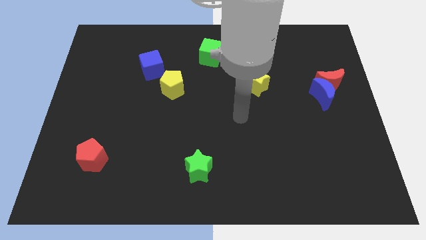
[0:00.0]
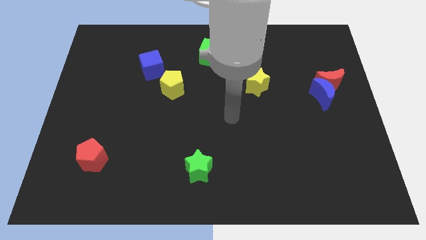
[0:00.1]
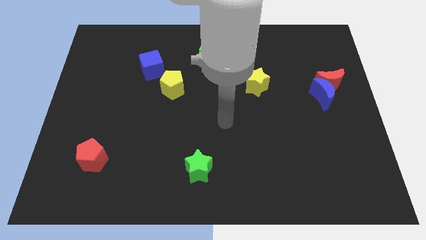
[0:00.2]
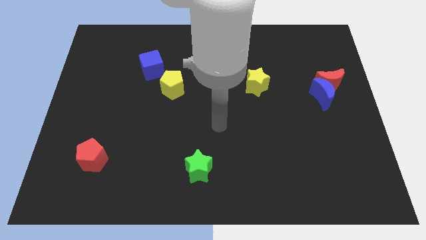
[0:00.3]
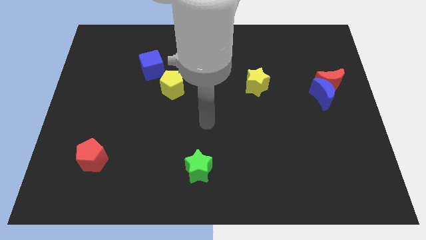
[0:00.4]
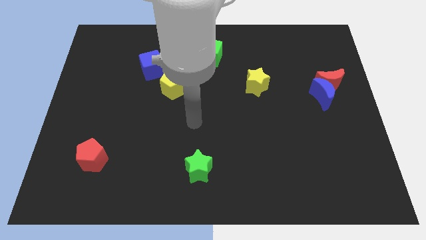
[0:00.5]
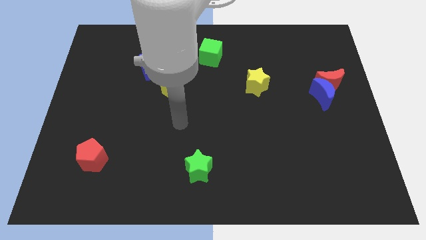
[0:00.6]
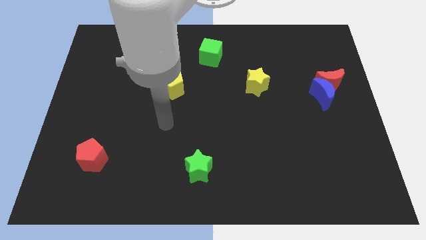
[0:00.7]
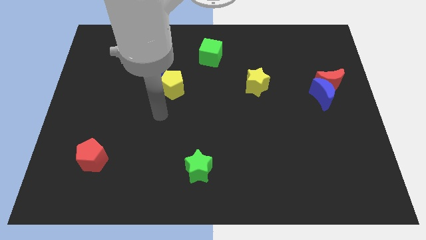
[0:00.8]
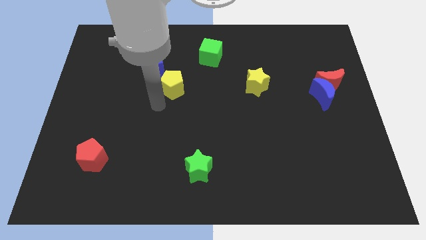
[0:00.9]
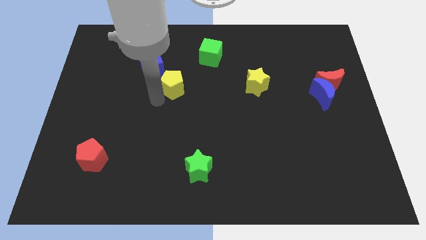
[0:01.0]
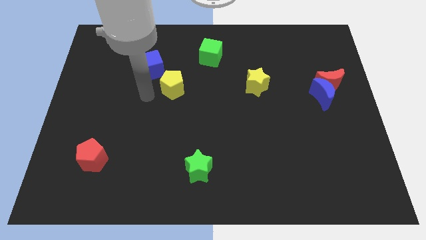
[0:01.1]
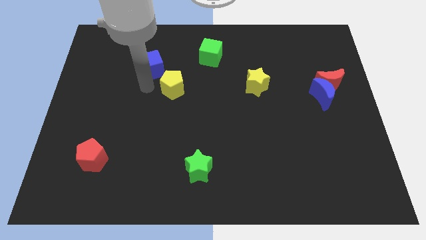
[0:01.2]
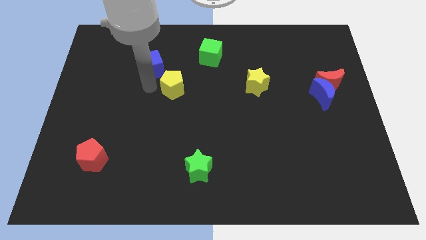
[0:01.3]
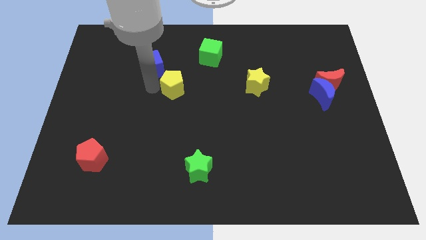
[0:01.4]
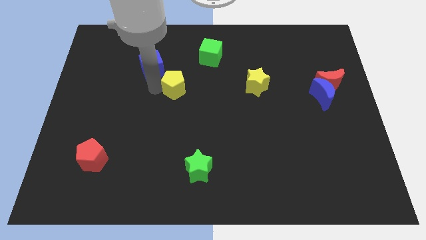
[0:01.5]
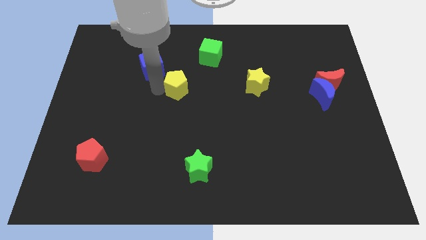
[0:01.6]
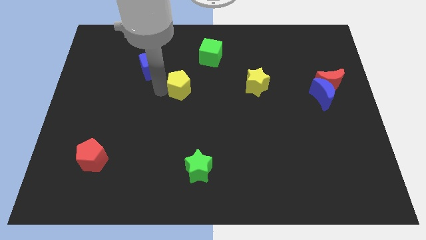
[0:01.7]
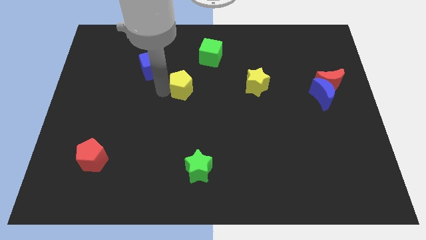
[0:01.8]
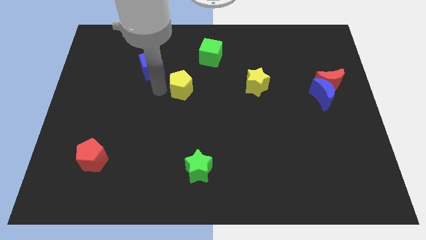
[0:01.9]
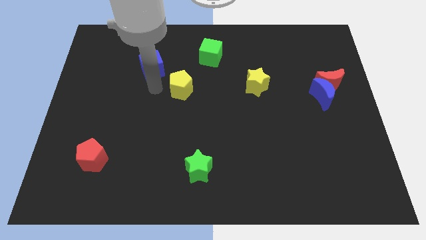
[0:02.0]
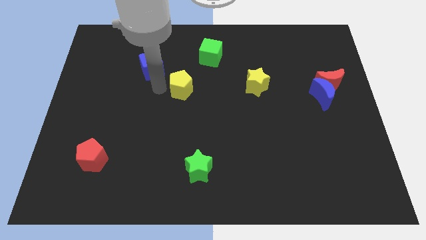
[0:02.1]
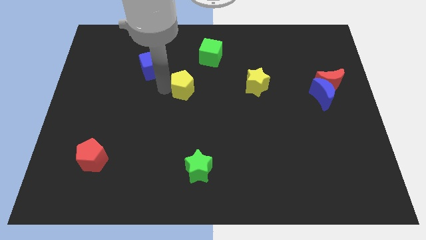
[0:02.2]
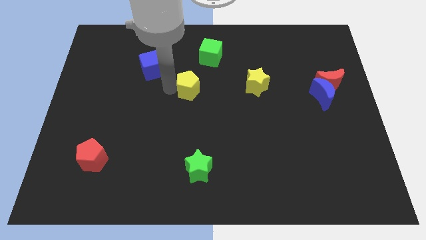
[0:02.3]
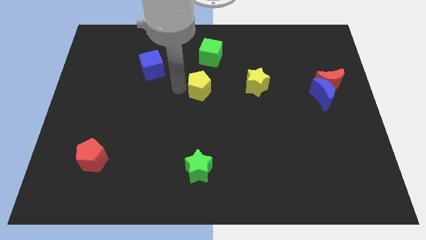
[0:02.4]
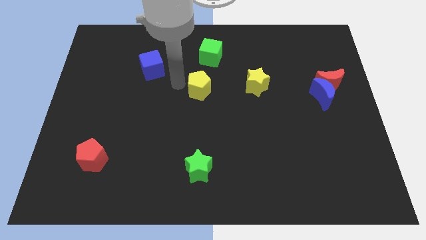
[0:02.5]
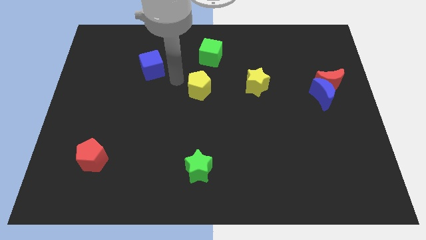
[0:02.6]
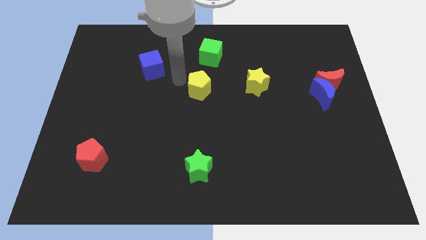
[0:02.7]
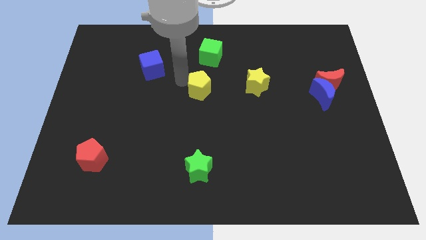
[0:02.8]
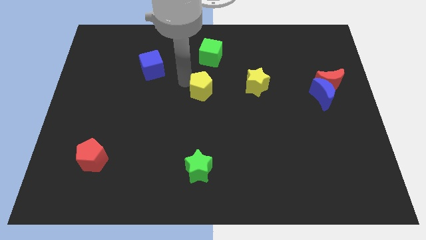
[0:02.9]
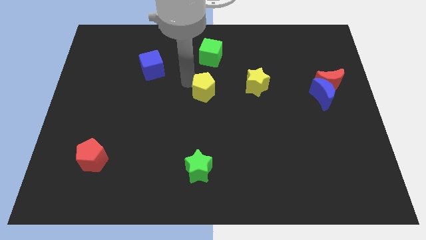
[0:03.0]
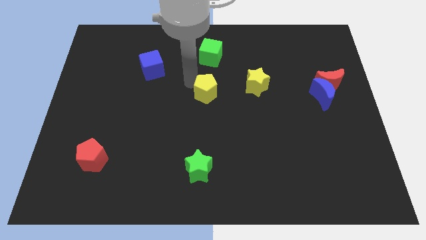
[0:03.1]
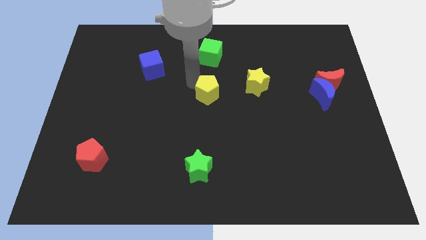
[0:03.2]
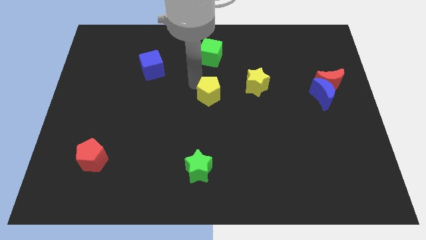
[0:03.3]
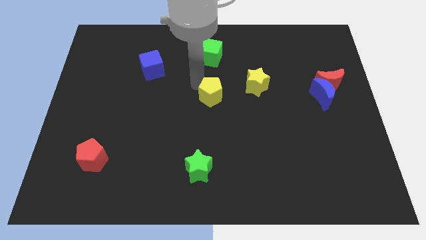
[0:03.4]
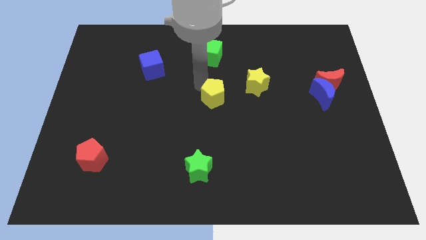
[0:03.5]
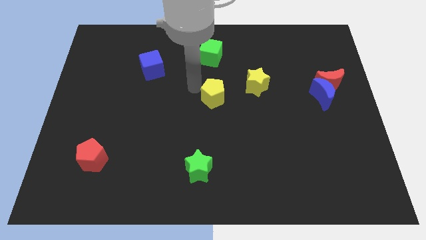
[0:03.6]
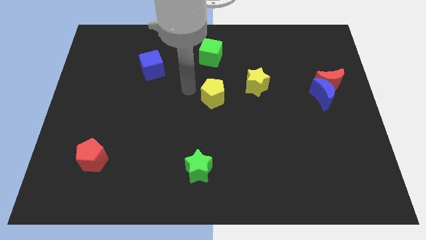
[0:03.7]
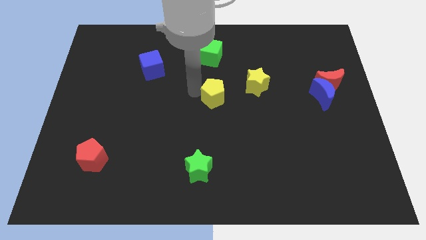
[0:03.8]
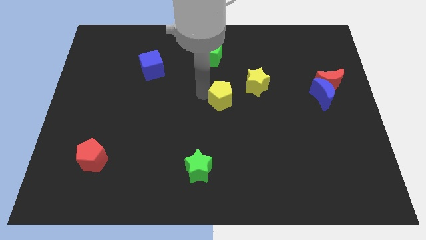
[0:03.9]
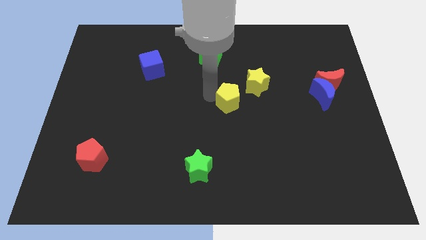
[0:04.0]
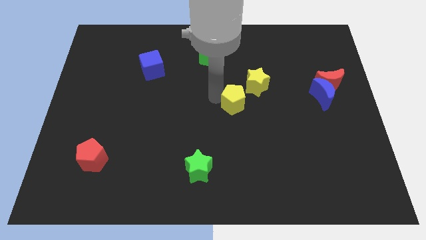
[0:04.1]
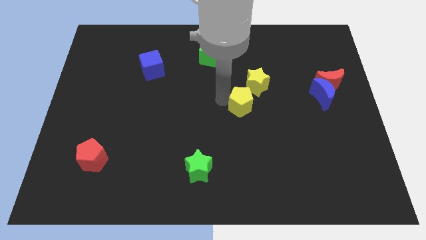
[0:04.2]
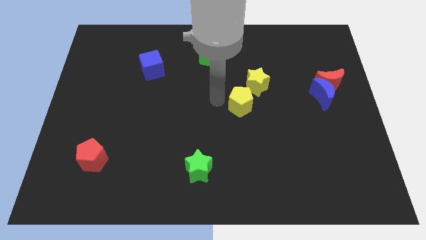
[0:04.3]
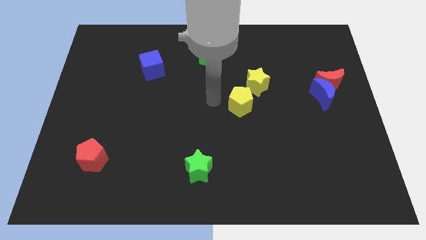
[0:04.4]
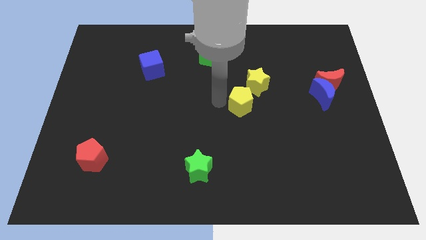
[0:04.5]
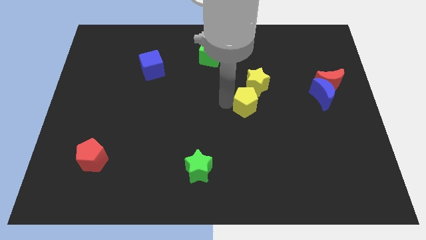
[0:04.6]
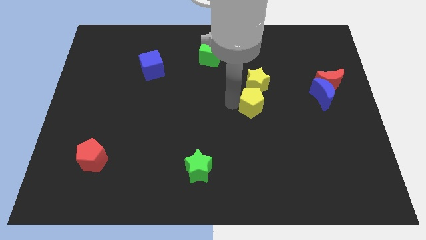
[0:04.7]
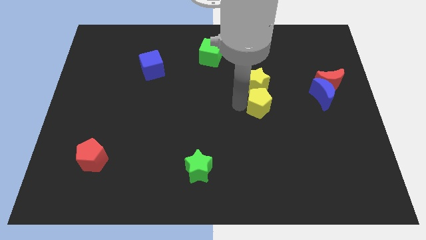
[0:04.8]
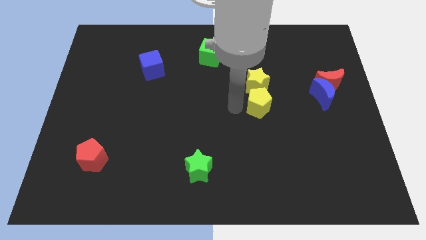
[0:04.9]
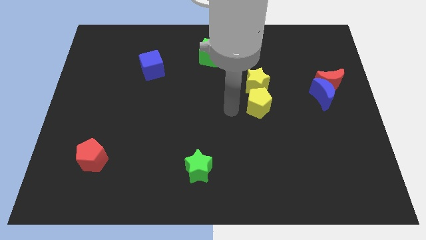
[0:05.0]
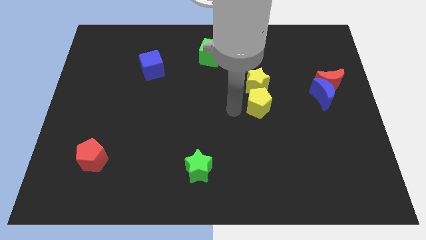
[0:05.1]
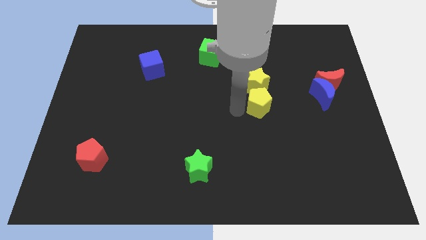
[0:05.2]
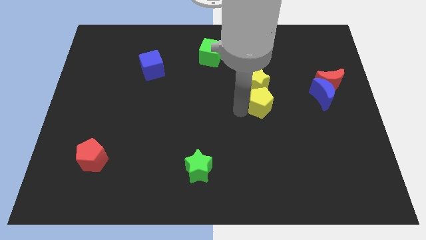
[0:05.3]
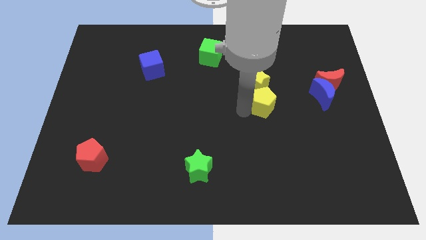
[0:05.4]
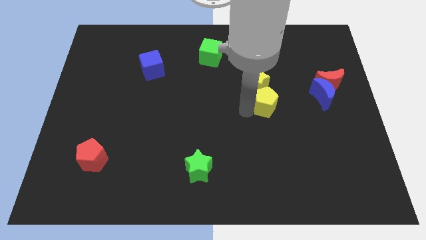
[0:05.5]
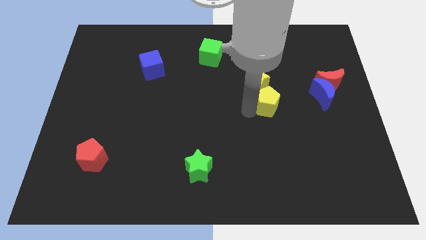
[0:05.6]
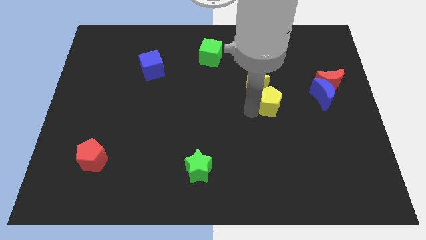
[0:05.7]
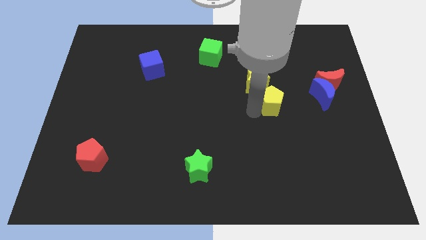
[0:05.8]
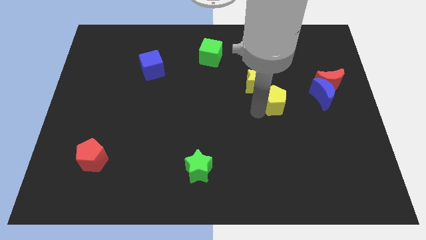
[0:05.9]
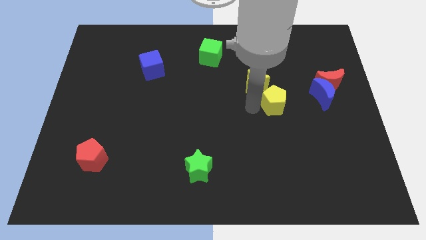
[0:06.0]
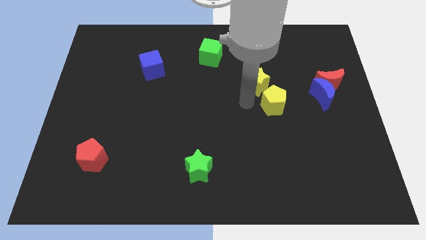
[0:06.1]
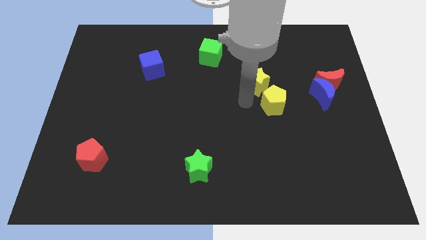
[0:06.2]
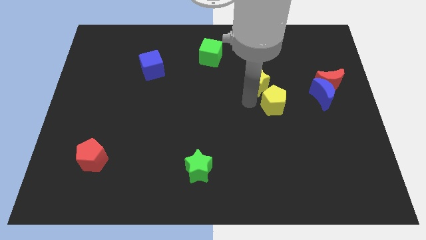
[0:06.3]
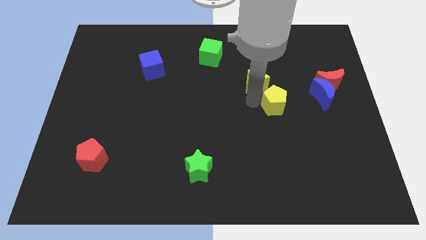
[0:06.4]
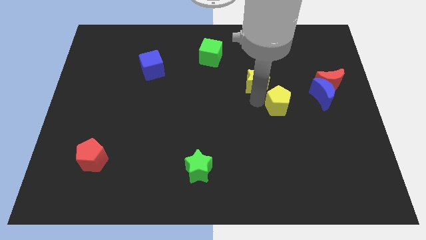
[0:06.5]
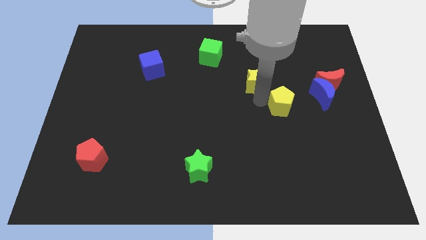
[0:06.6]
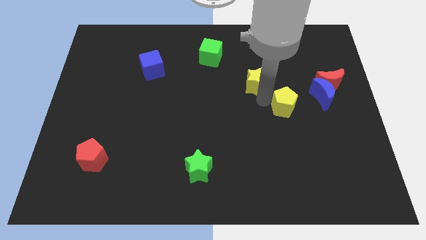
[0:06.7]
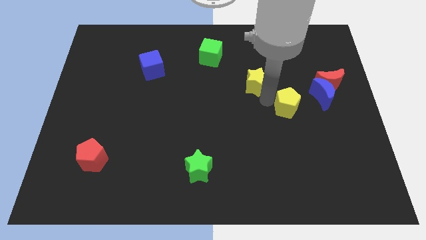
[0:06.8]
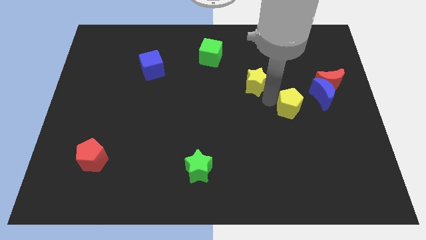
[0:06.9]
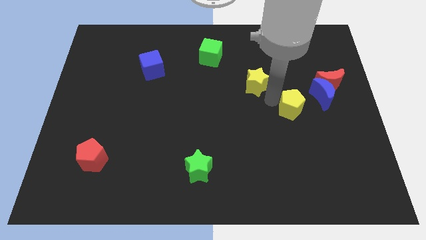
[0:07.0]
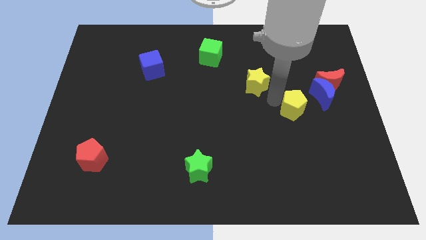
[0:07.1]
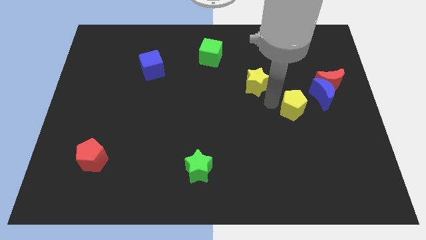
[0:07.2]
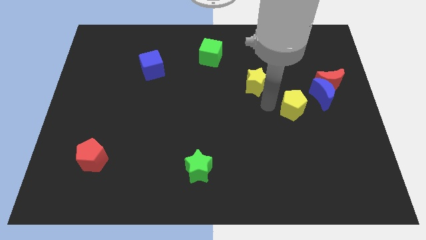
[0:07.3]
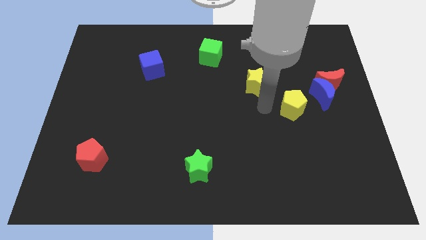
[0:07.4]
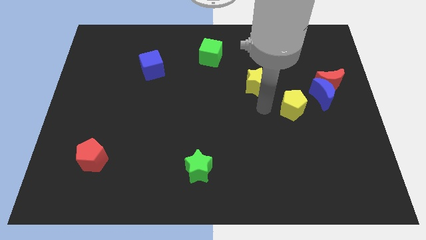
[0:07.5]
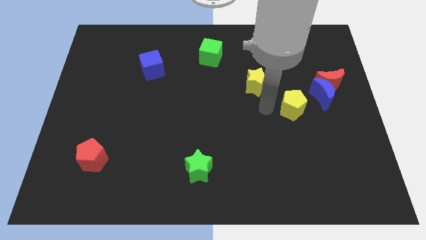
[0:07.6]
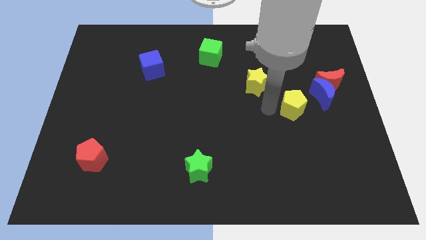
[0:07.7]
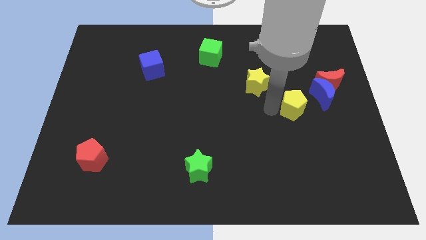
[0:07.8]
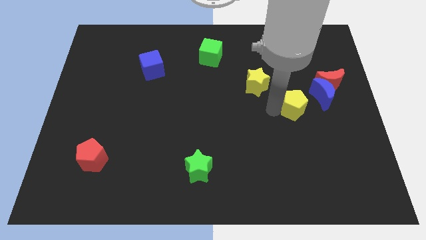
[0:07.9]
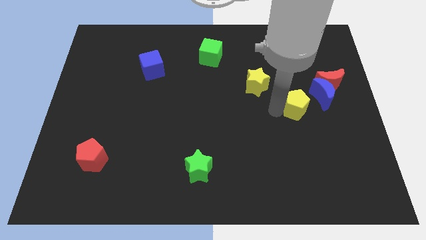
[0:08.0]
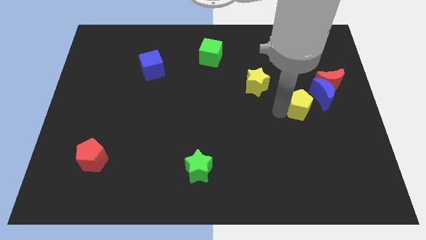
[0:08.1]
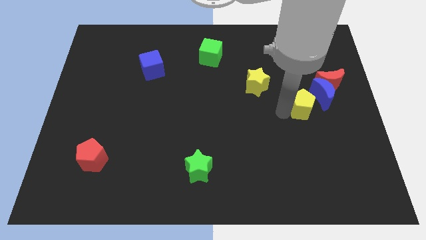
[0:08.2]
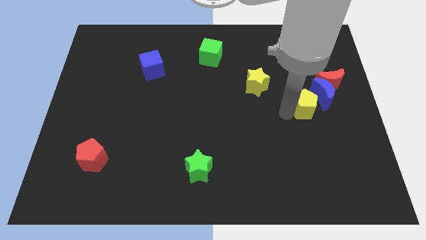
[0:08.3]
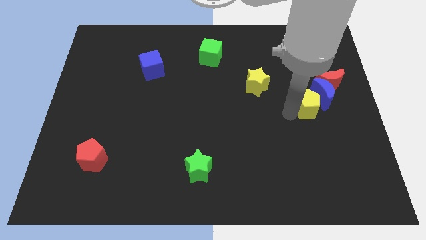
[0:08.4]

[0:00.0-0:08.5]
move the yellow pentagon towards the blue moon
